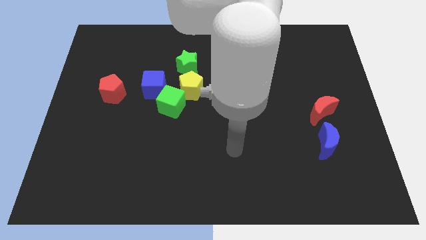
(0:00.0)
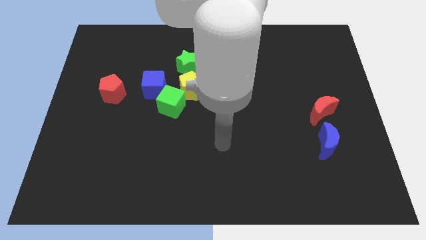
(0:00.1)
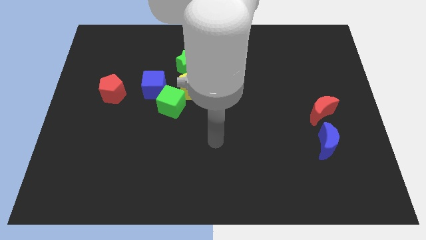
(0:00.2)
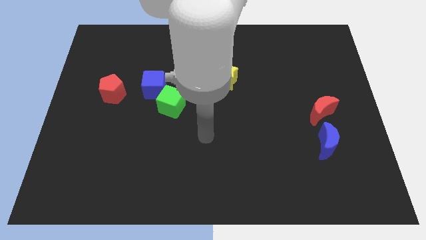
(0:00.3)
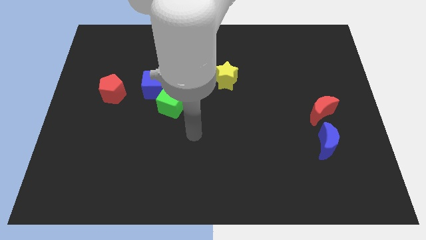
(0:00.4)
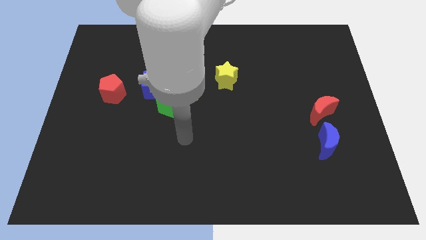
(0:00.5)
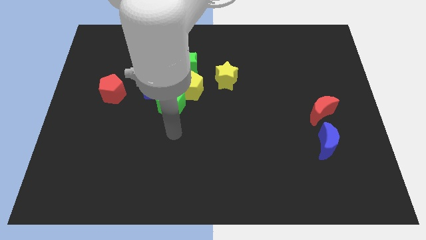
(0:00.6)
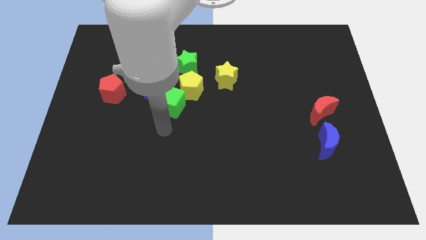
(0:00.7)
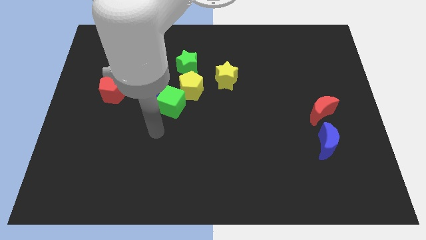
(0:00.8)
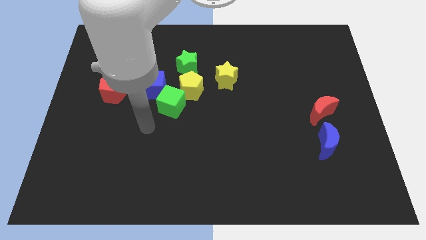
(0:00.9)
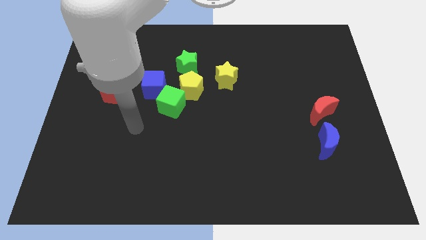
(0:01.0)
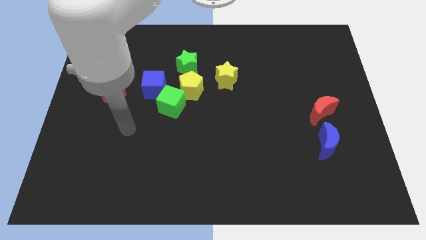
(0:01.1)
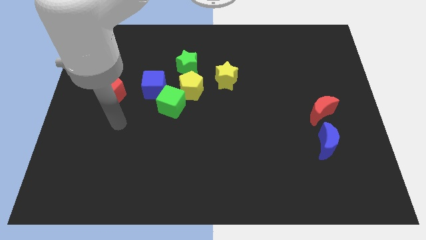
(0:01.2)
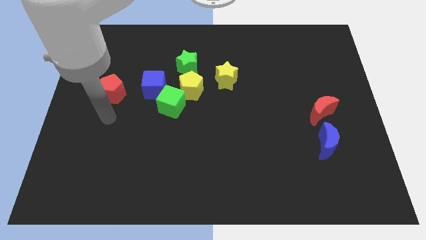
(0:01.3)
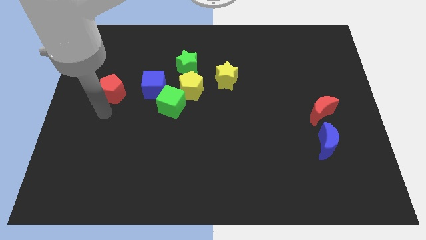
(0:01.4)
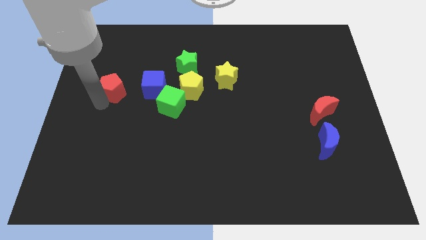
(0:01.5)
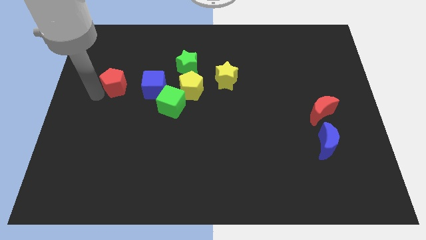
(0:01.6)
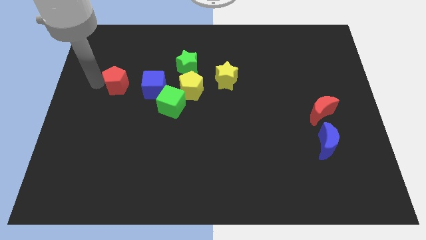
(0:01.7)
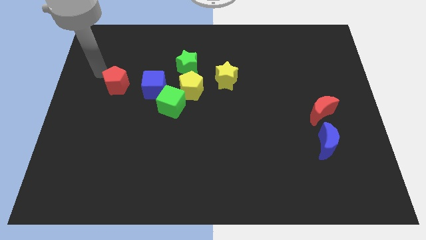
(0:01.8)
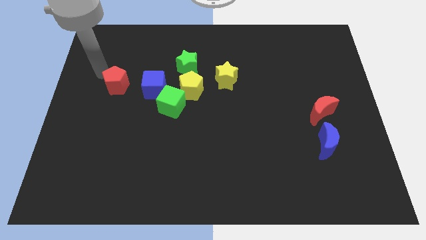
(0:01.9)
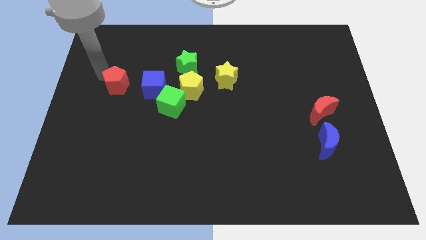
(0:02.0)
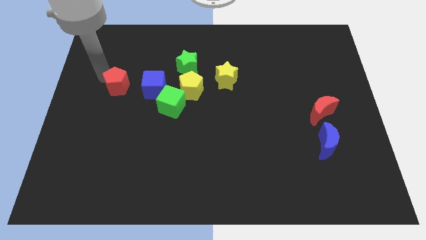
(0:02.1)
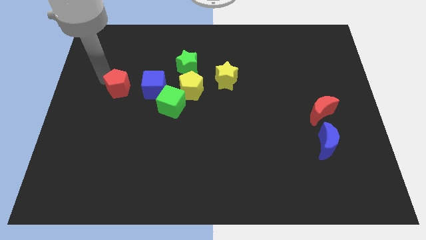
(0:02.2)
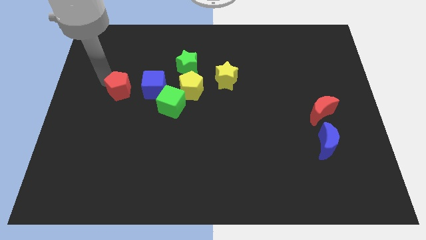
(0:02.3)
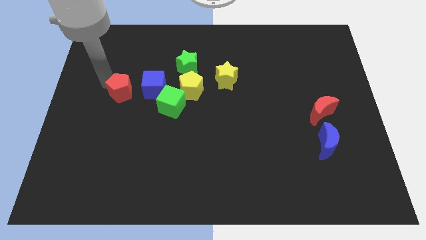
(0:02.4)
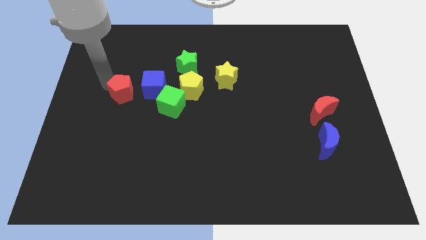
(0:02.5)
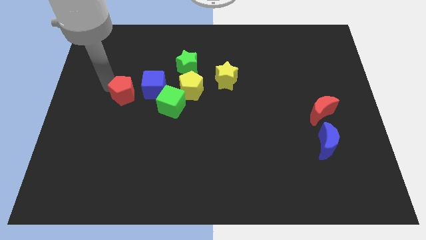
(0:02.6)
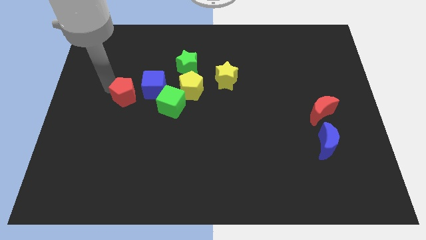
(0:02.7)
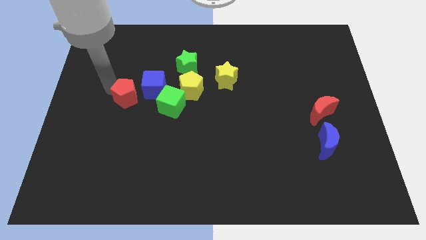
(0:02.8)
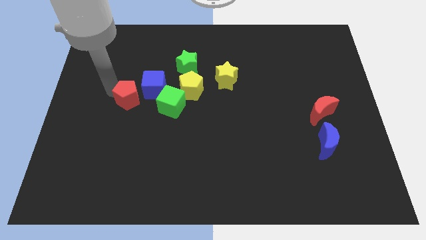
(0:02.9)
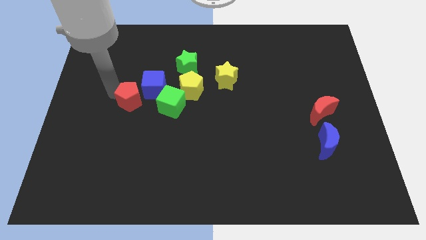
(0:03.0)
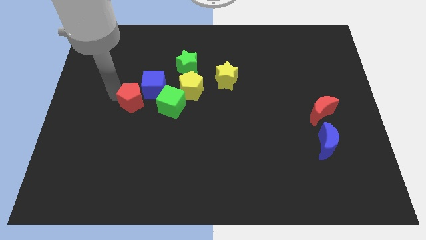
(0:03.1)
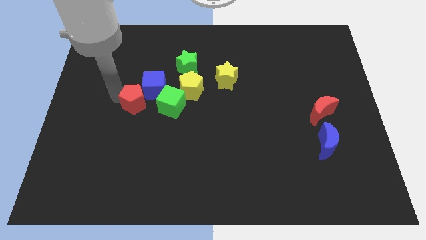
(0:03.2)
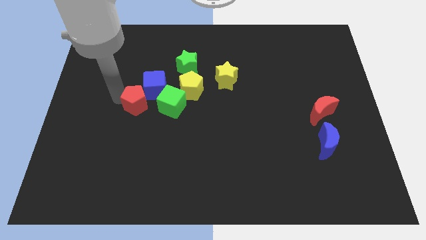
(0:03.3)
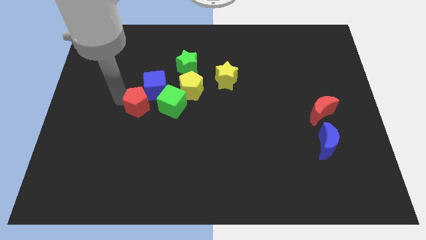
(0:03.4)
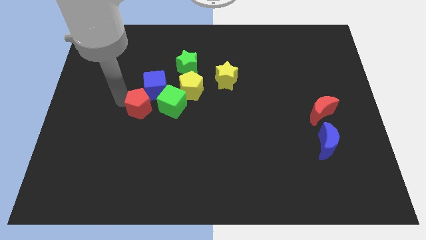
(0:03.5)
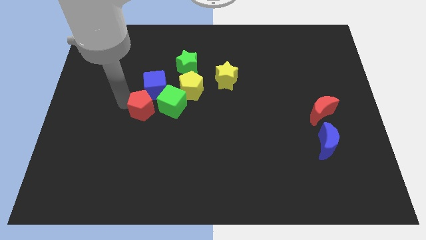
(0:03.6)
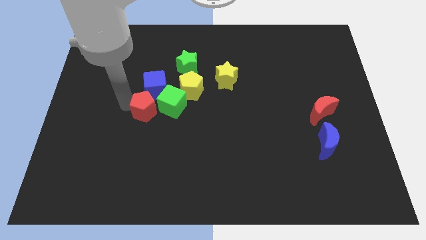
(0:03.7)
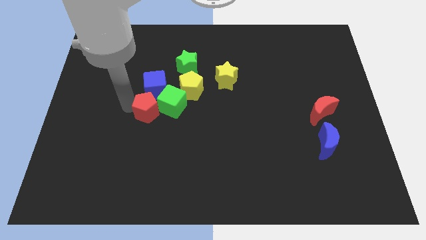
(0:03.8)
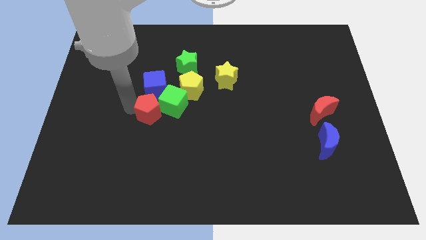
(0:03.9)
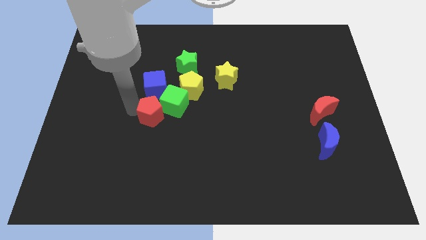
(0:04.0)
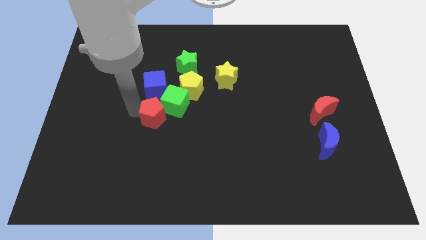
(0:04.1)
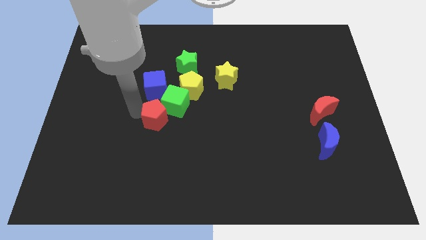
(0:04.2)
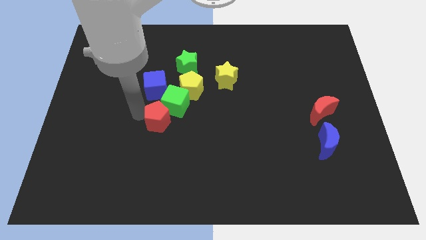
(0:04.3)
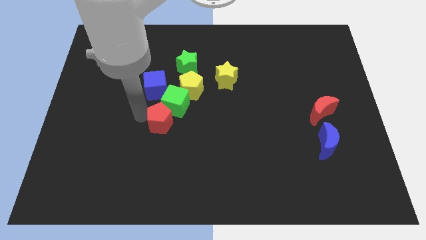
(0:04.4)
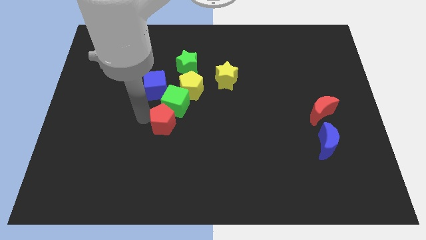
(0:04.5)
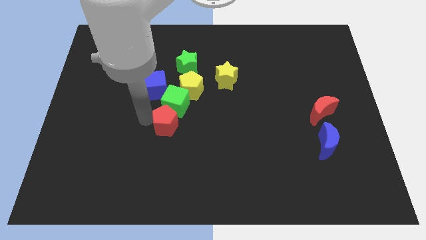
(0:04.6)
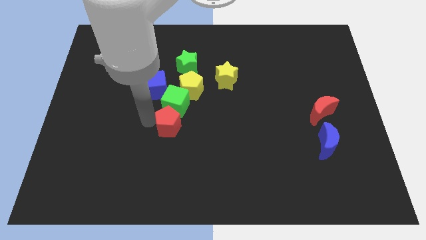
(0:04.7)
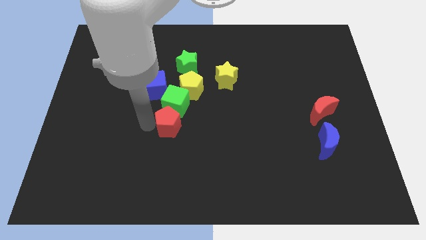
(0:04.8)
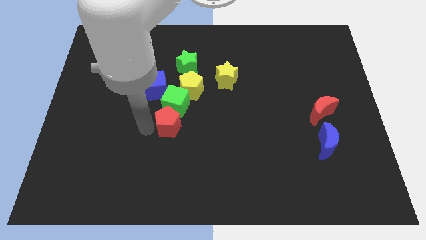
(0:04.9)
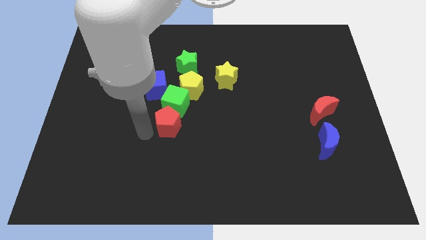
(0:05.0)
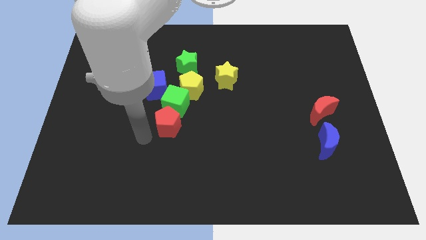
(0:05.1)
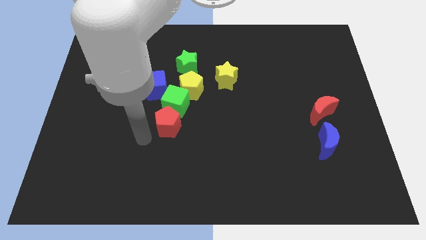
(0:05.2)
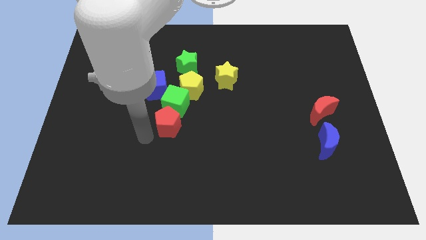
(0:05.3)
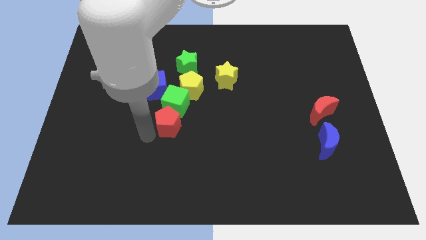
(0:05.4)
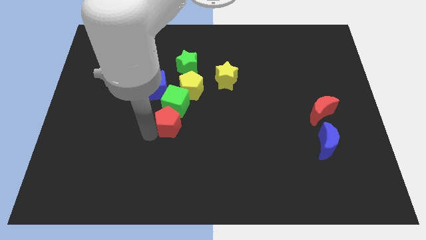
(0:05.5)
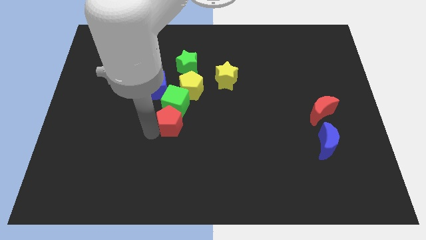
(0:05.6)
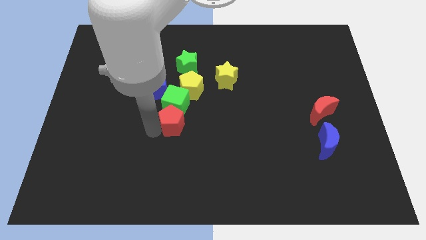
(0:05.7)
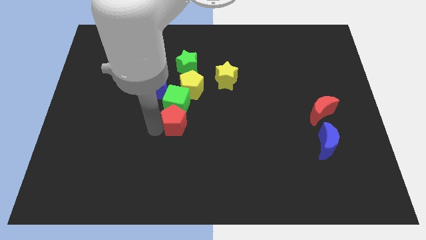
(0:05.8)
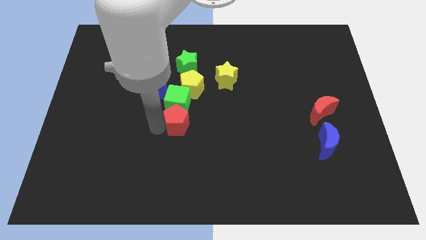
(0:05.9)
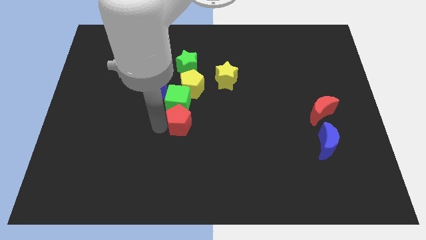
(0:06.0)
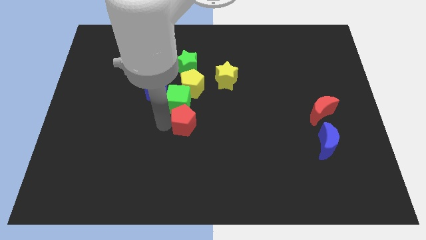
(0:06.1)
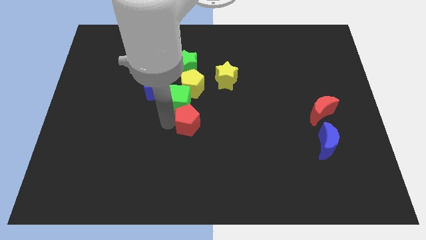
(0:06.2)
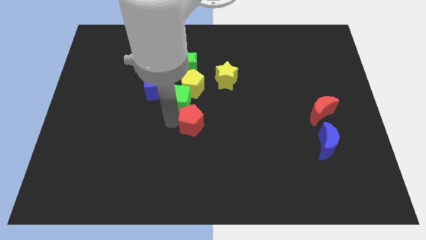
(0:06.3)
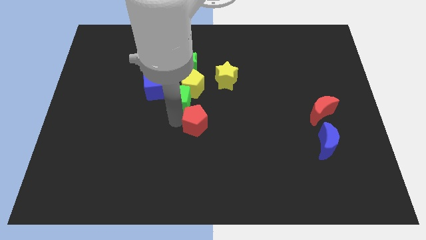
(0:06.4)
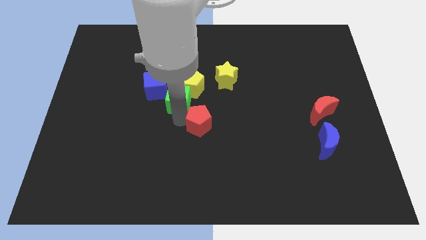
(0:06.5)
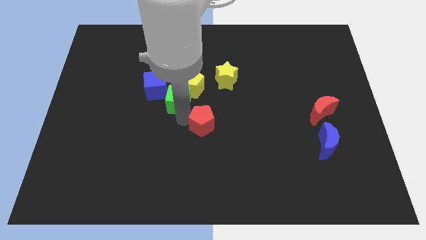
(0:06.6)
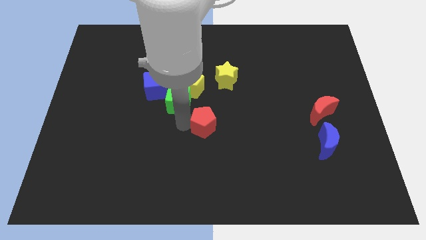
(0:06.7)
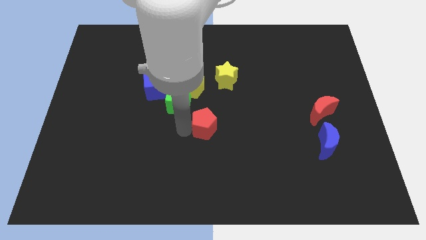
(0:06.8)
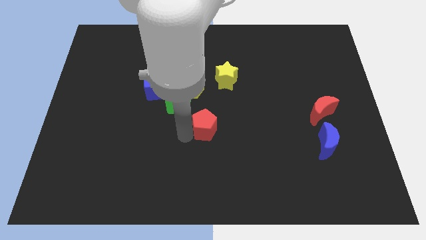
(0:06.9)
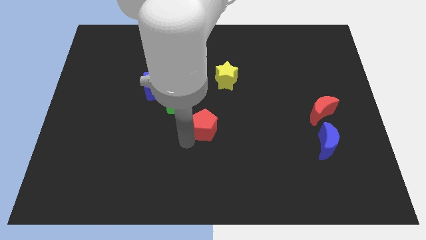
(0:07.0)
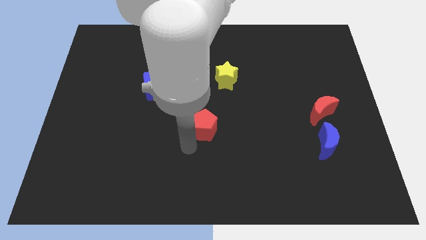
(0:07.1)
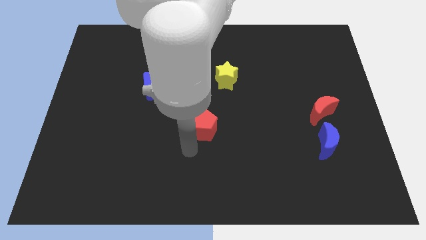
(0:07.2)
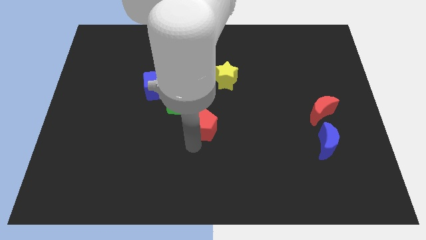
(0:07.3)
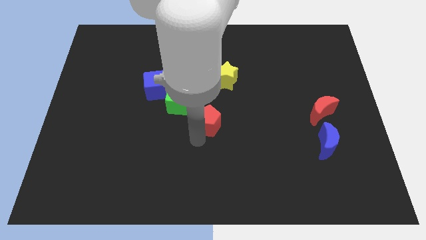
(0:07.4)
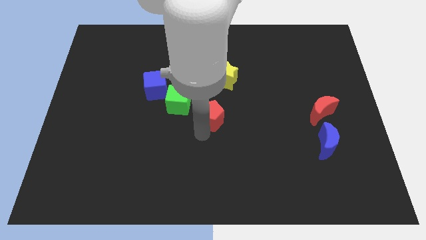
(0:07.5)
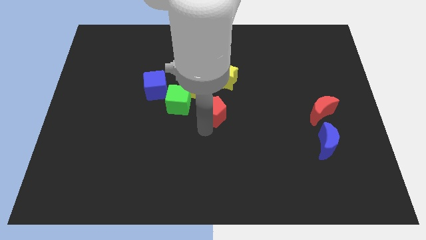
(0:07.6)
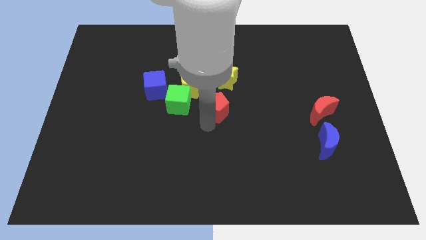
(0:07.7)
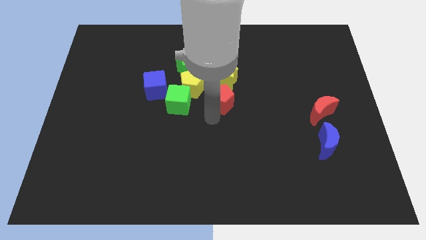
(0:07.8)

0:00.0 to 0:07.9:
put the red pentagon right of the yellow pentagon
